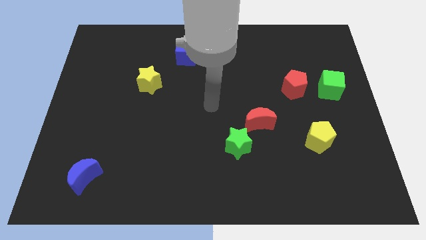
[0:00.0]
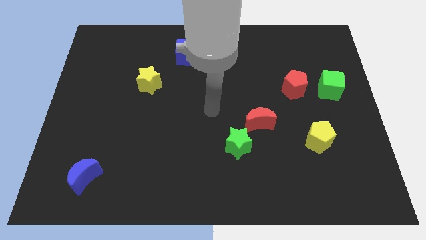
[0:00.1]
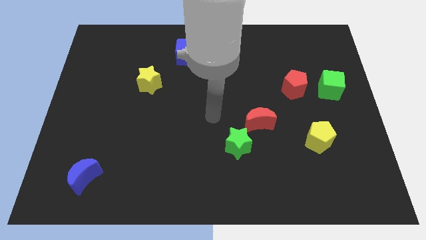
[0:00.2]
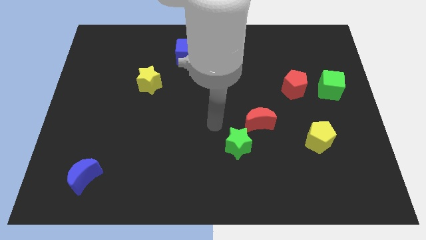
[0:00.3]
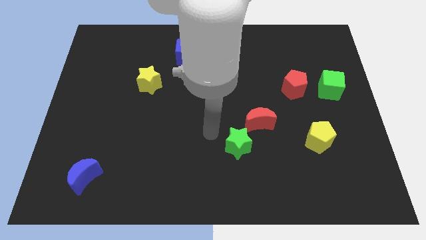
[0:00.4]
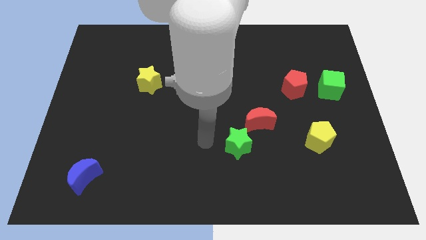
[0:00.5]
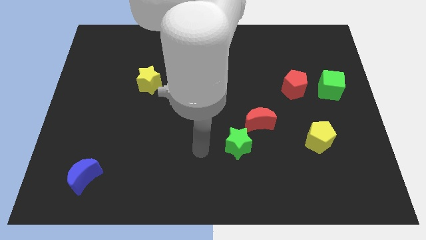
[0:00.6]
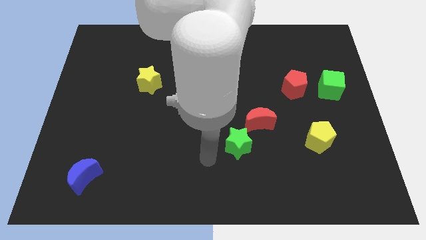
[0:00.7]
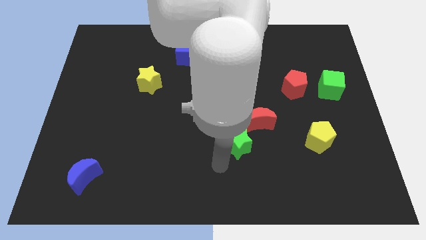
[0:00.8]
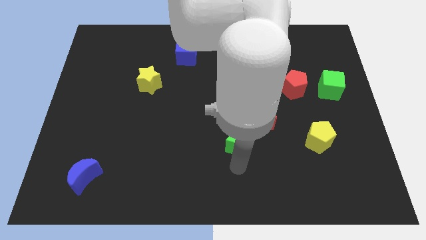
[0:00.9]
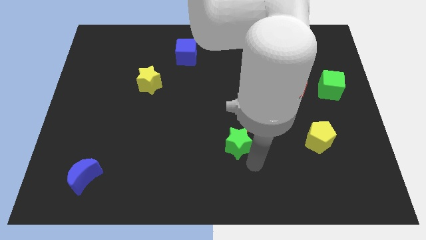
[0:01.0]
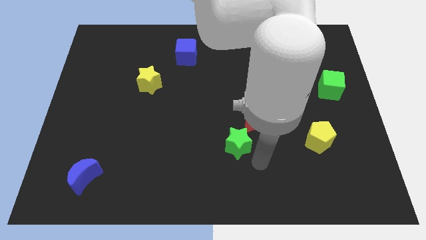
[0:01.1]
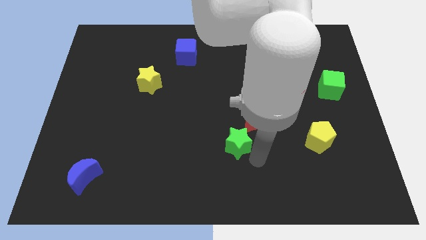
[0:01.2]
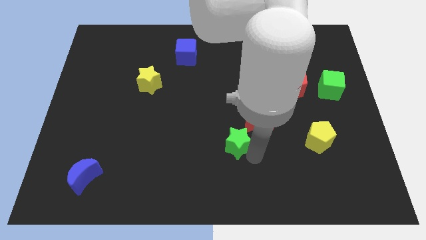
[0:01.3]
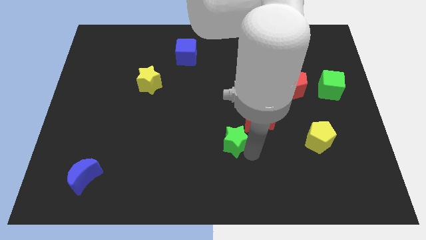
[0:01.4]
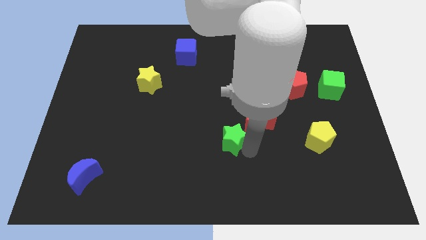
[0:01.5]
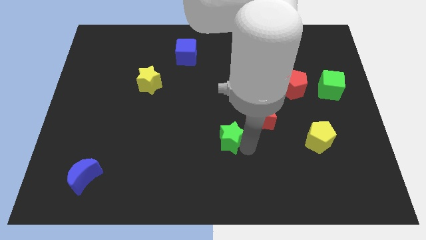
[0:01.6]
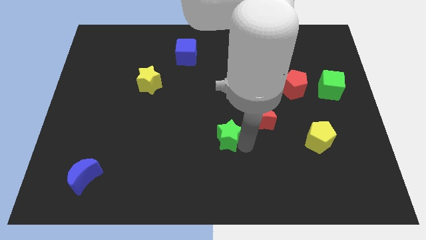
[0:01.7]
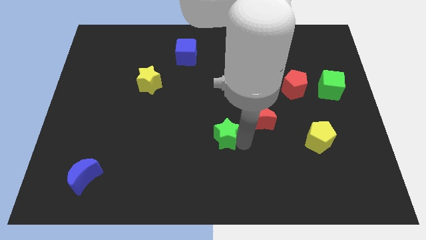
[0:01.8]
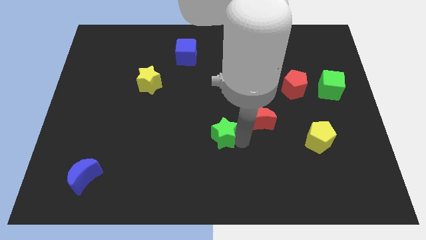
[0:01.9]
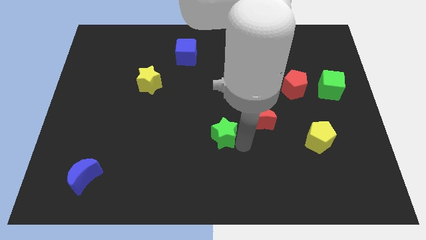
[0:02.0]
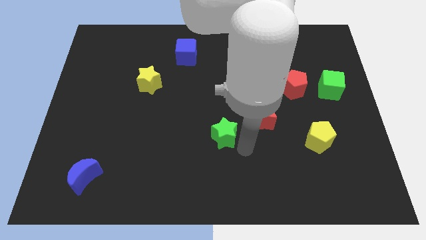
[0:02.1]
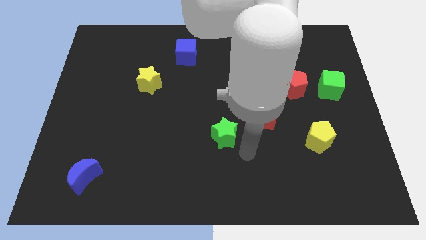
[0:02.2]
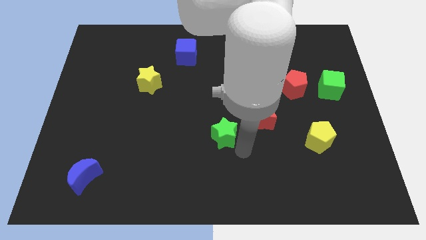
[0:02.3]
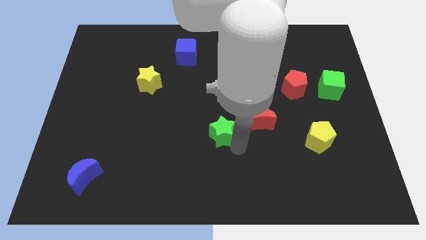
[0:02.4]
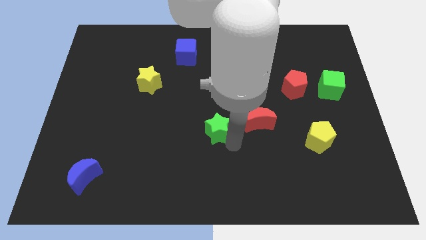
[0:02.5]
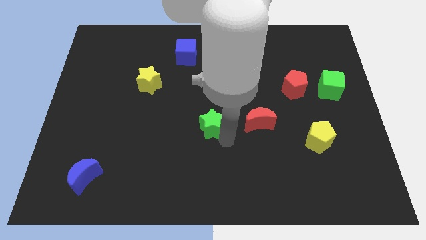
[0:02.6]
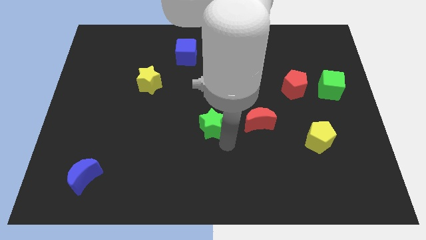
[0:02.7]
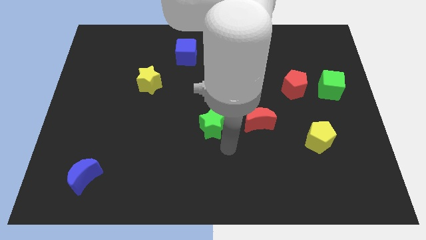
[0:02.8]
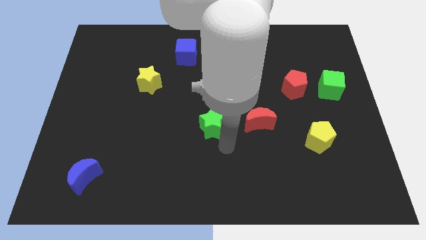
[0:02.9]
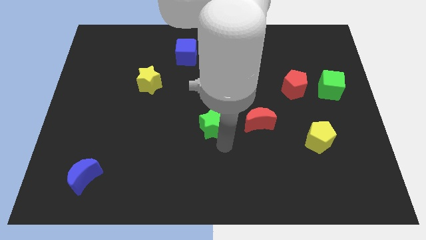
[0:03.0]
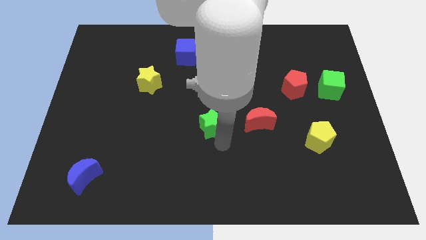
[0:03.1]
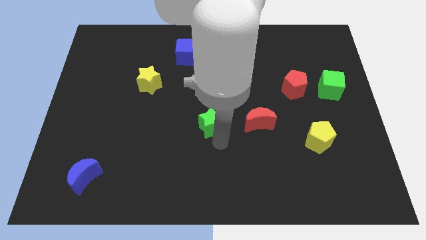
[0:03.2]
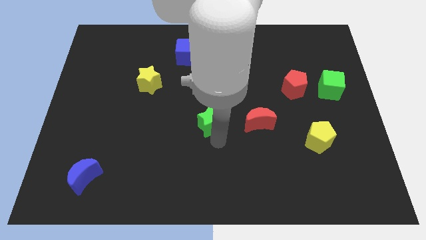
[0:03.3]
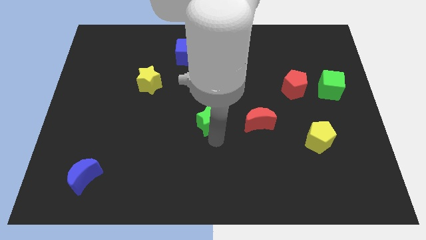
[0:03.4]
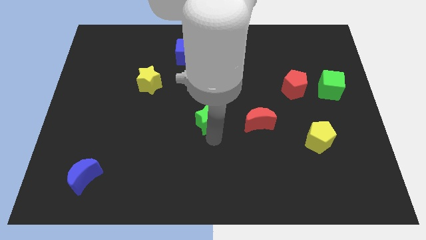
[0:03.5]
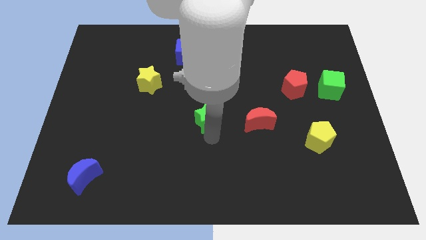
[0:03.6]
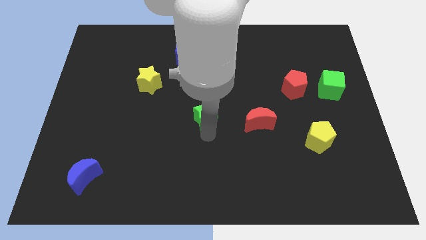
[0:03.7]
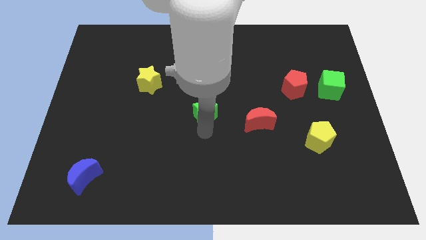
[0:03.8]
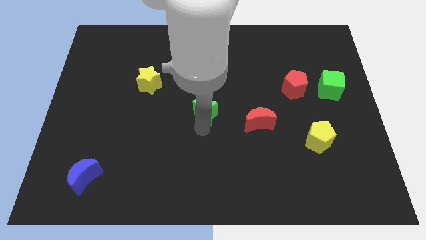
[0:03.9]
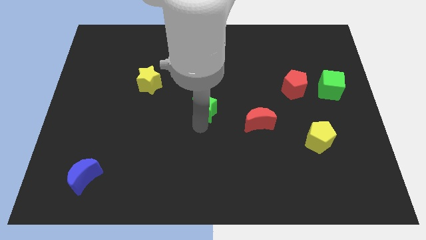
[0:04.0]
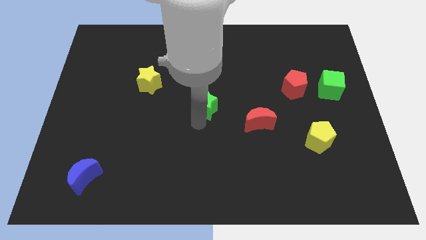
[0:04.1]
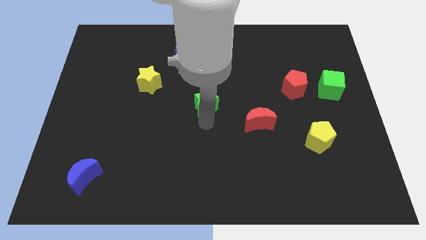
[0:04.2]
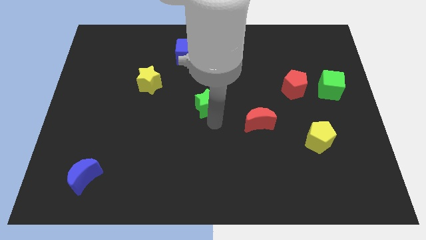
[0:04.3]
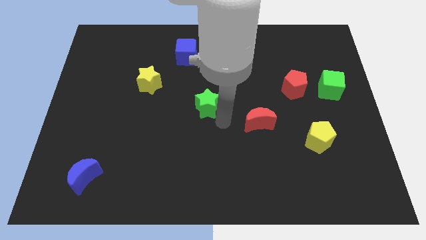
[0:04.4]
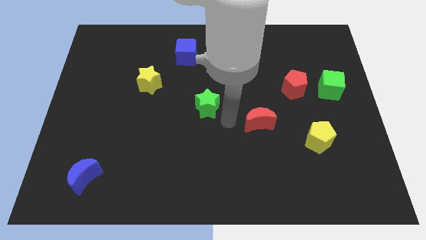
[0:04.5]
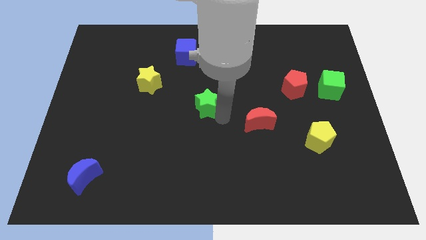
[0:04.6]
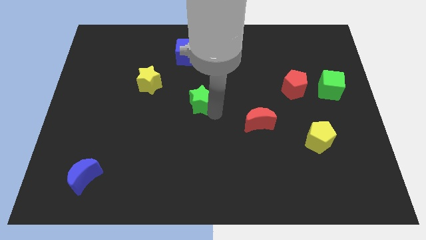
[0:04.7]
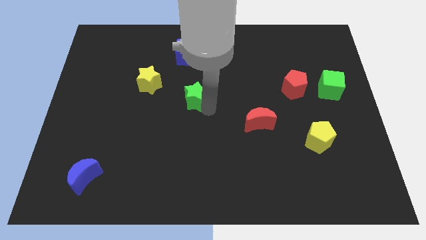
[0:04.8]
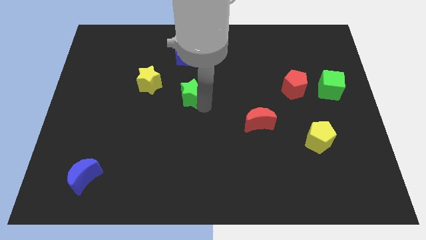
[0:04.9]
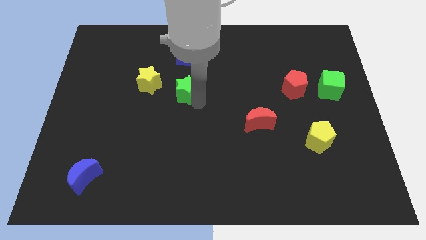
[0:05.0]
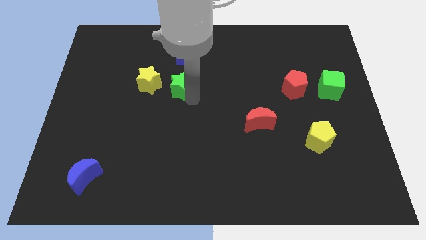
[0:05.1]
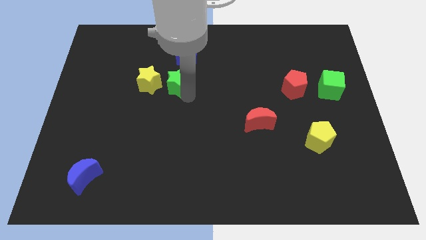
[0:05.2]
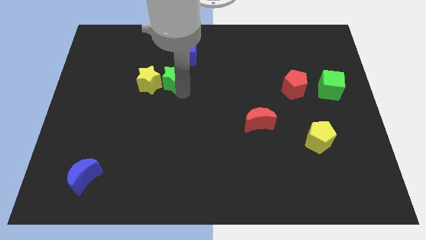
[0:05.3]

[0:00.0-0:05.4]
put the green star diagonally down and to the left of the blue cube

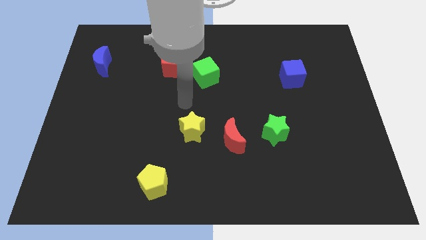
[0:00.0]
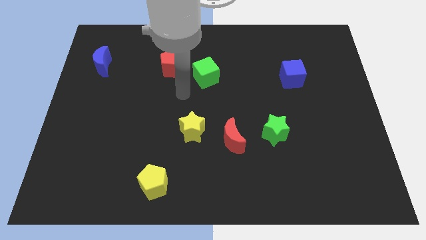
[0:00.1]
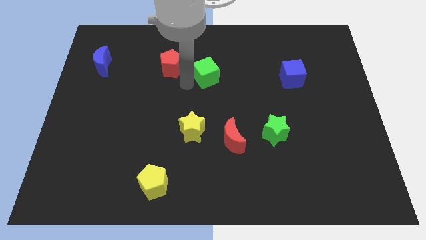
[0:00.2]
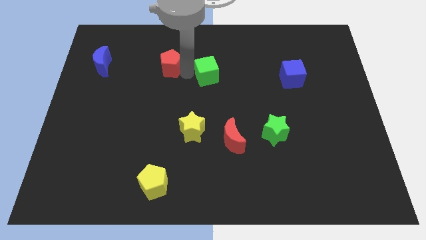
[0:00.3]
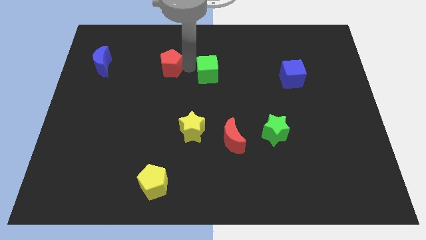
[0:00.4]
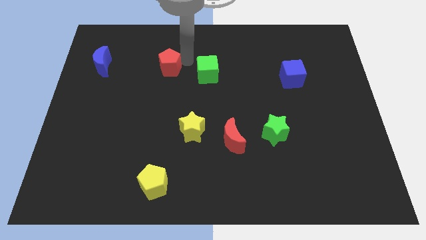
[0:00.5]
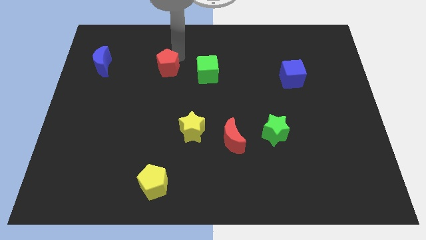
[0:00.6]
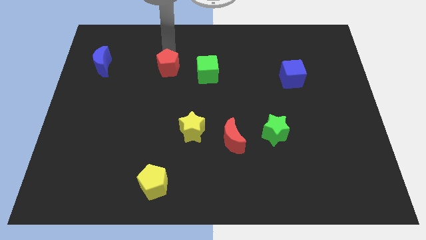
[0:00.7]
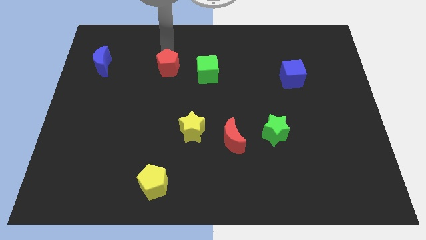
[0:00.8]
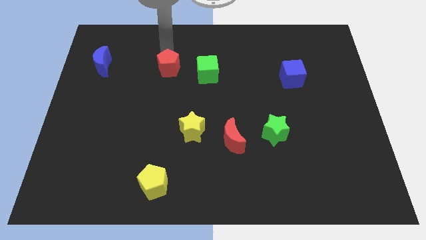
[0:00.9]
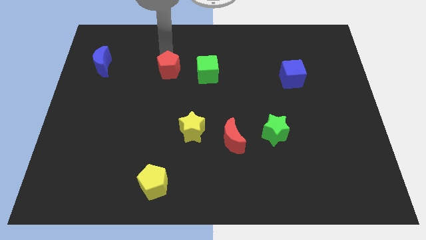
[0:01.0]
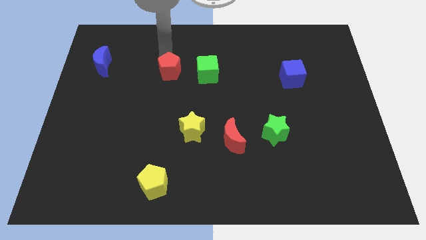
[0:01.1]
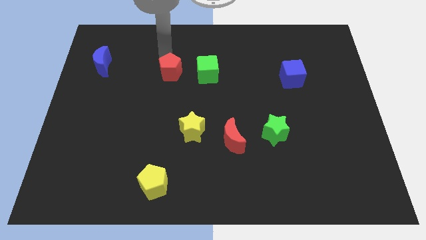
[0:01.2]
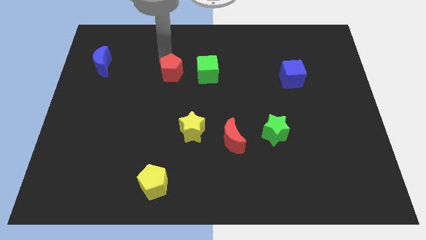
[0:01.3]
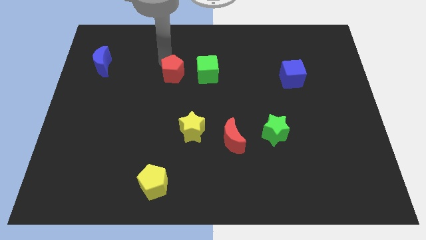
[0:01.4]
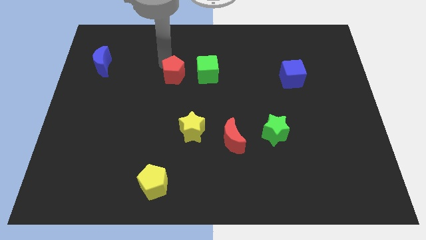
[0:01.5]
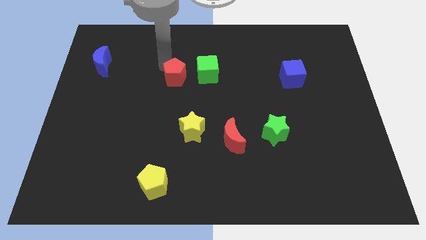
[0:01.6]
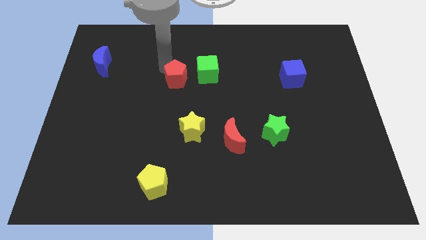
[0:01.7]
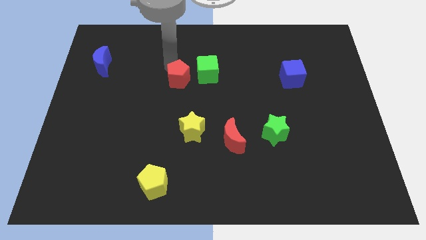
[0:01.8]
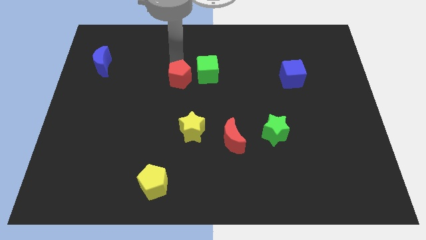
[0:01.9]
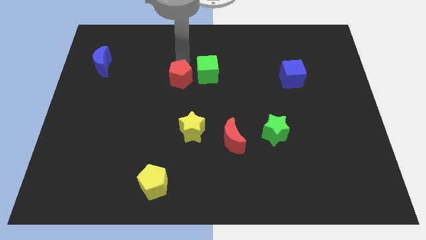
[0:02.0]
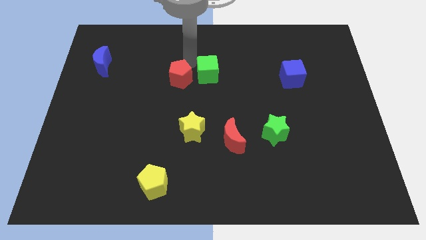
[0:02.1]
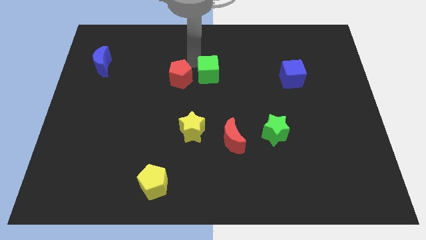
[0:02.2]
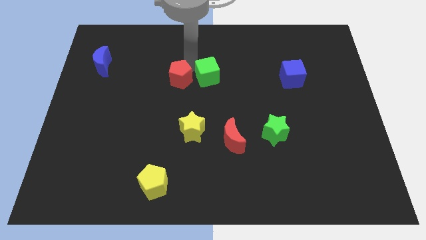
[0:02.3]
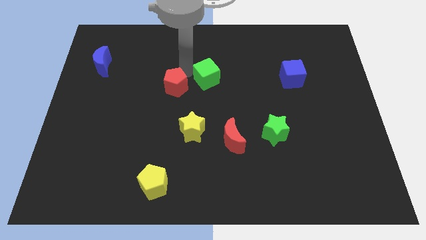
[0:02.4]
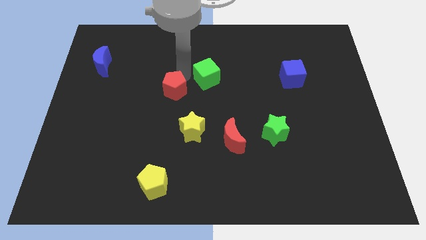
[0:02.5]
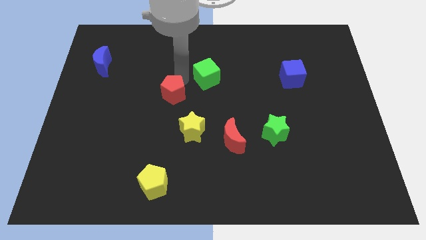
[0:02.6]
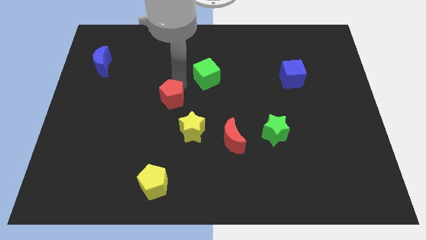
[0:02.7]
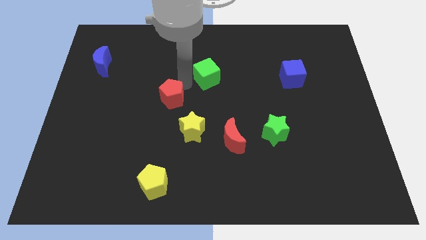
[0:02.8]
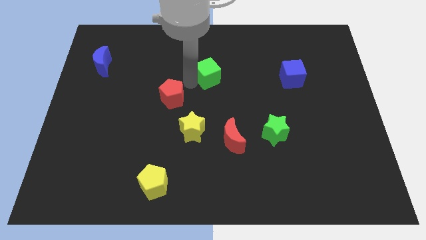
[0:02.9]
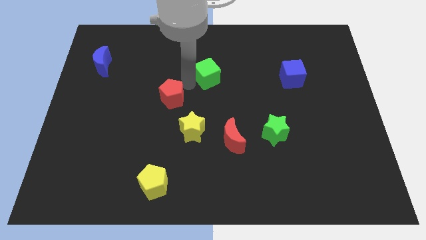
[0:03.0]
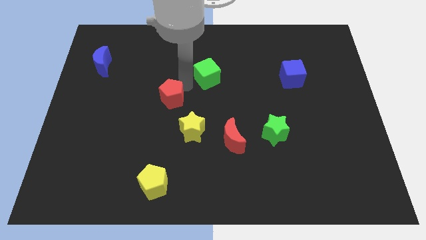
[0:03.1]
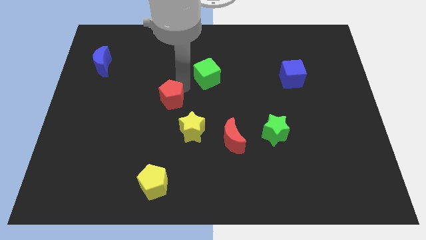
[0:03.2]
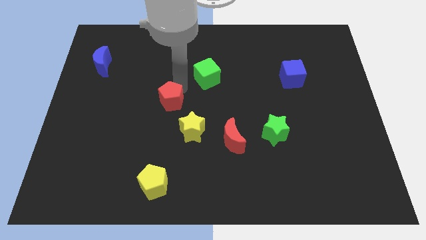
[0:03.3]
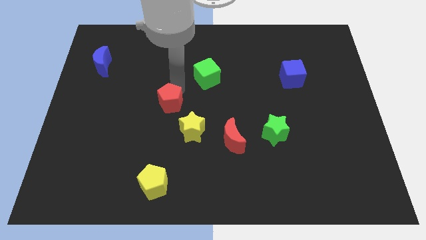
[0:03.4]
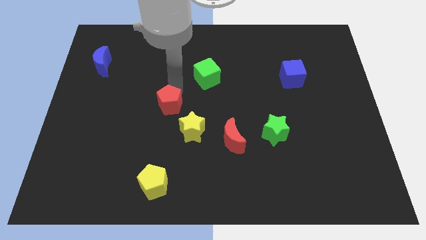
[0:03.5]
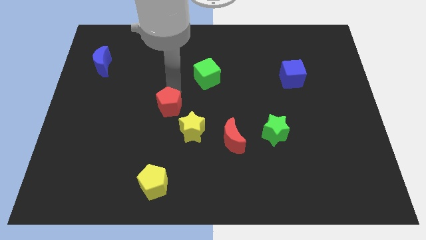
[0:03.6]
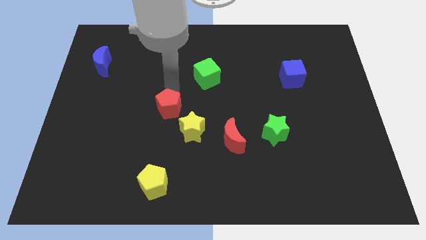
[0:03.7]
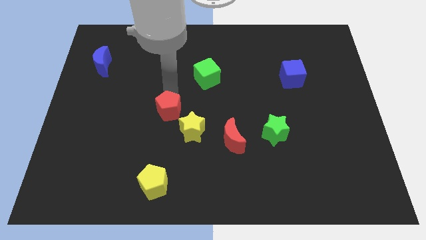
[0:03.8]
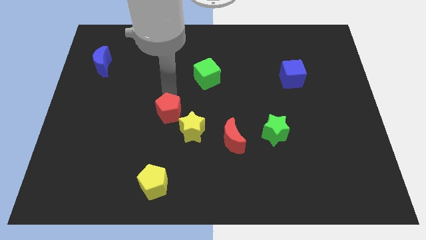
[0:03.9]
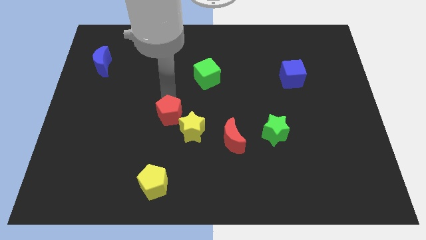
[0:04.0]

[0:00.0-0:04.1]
move the red pentagon to the left of the yellow star
